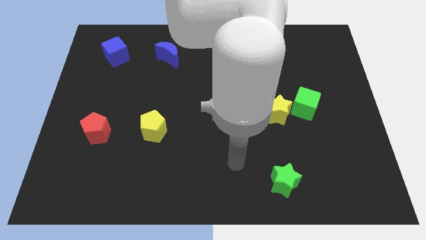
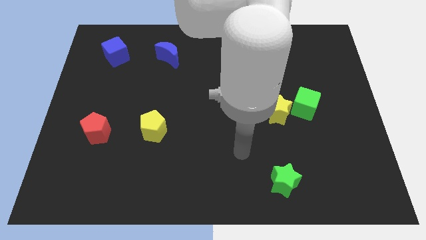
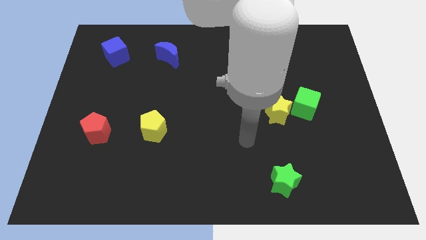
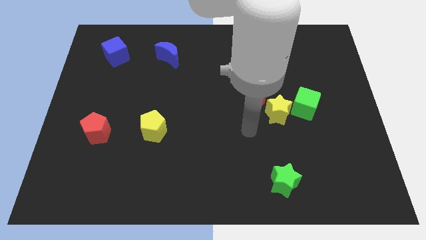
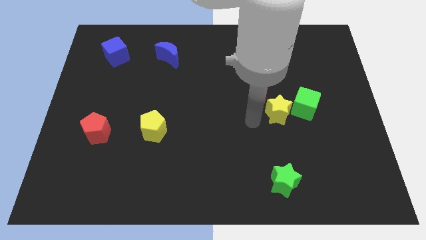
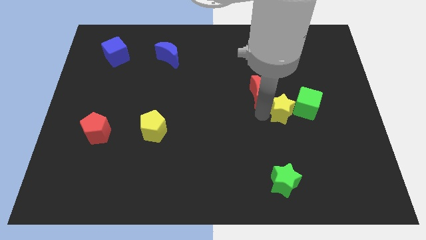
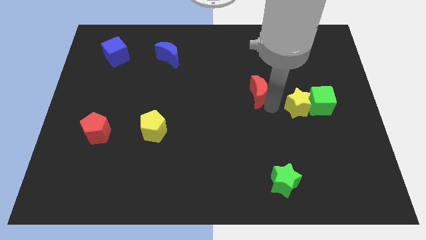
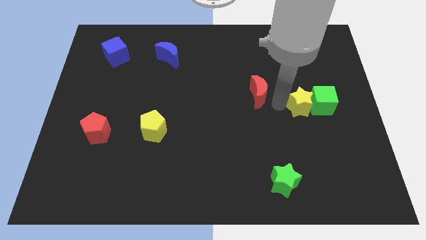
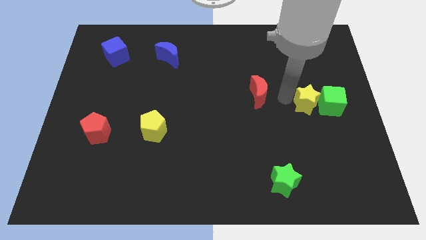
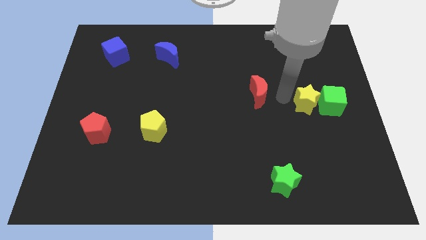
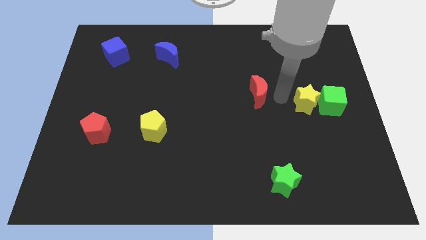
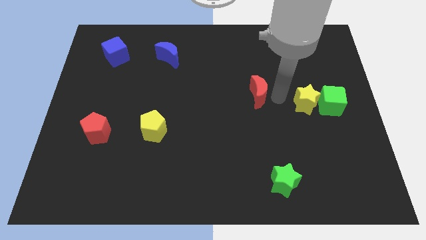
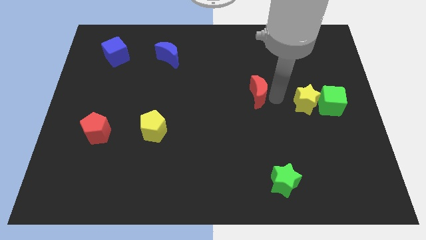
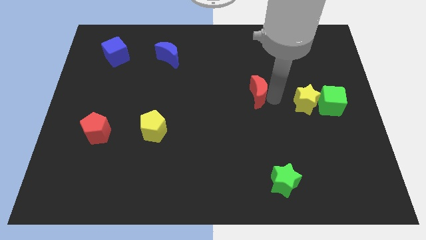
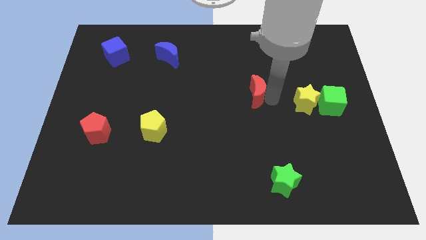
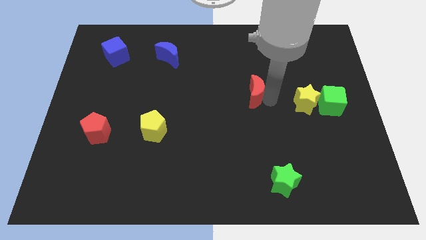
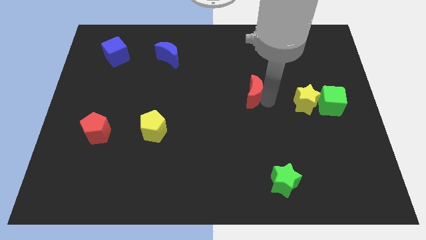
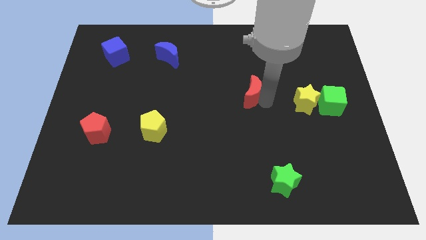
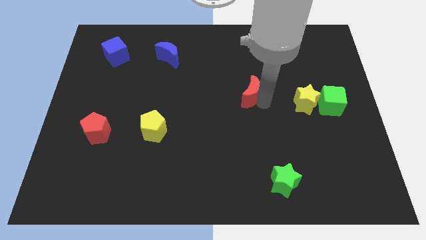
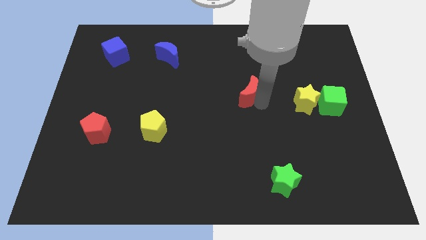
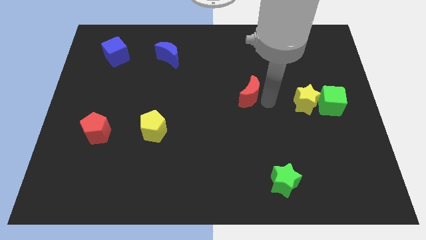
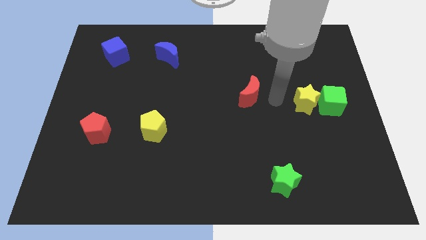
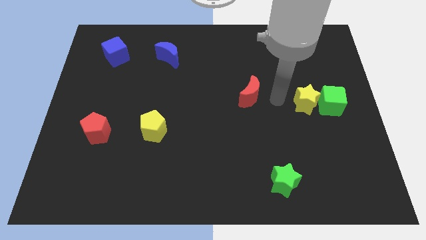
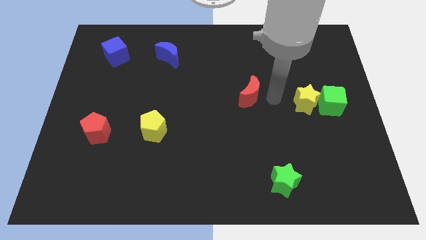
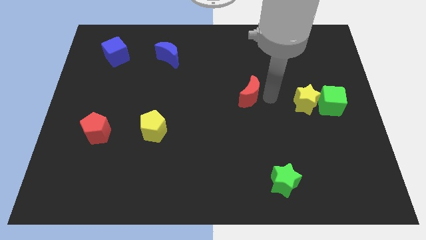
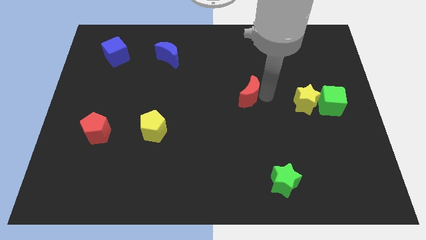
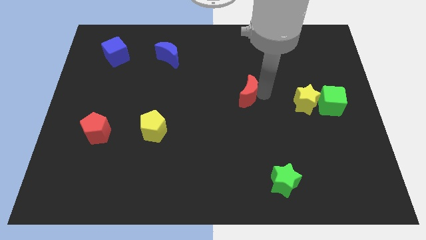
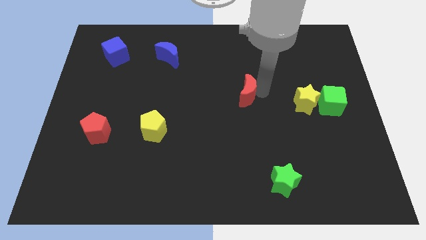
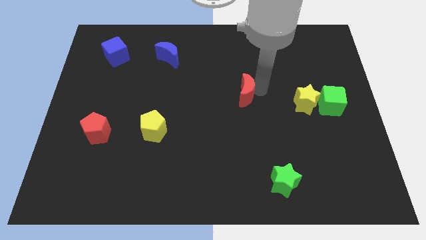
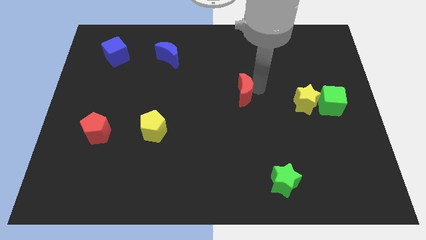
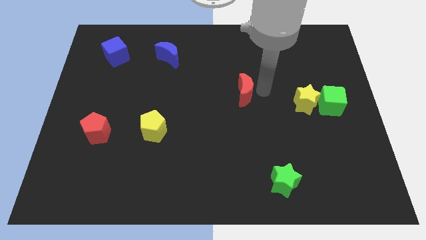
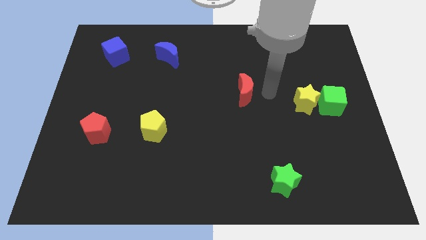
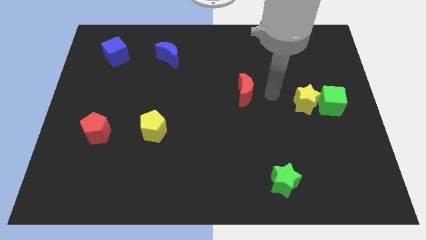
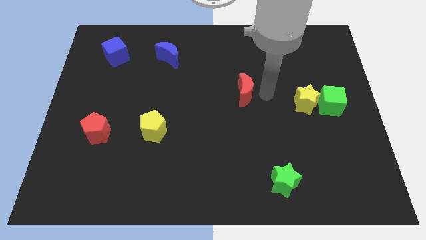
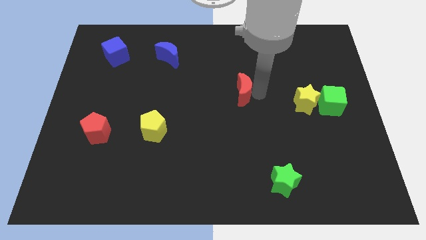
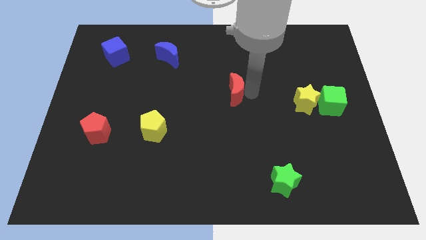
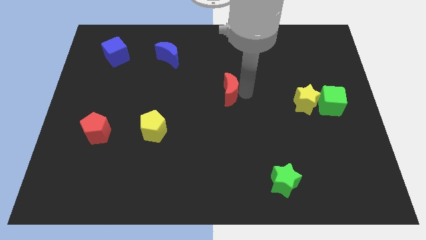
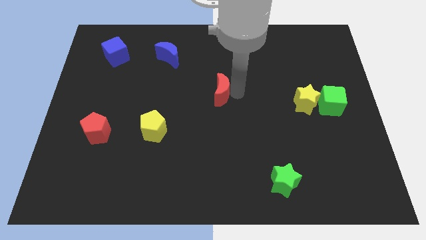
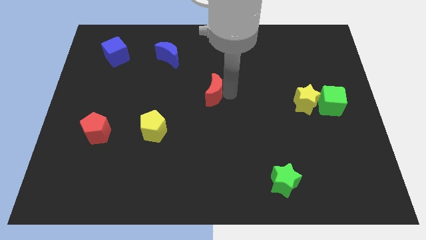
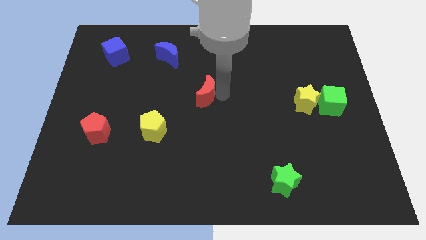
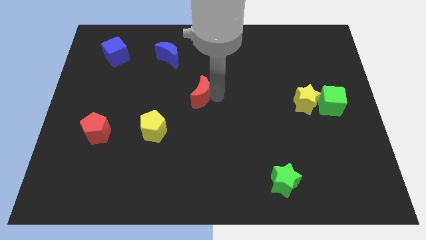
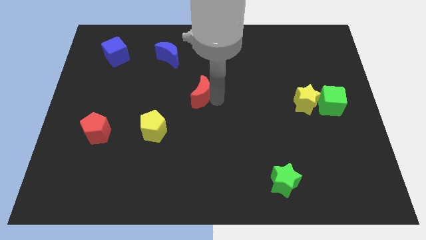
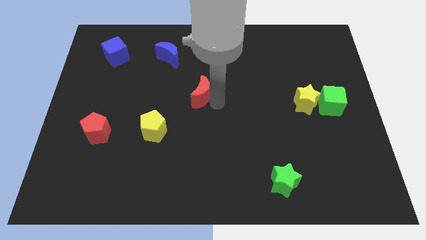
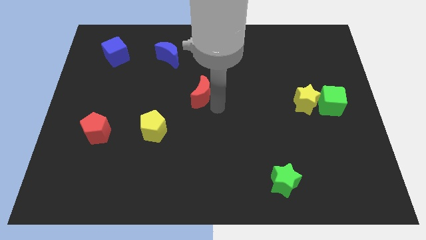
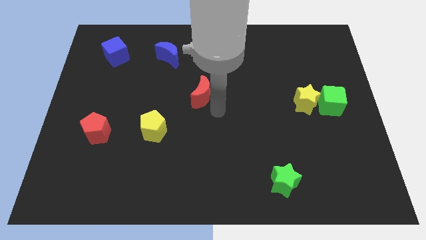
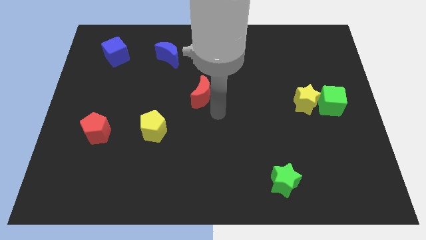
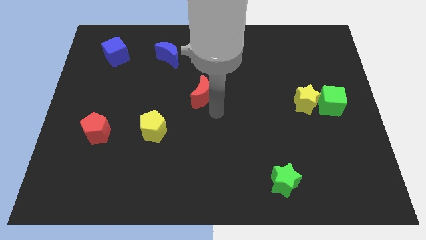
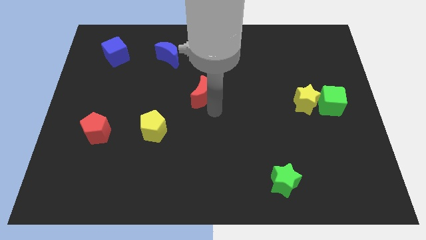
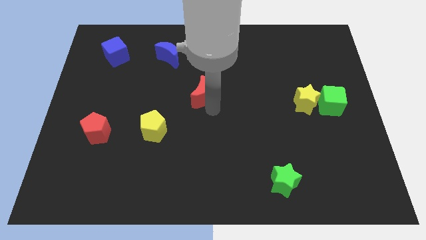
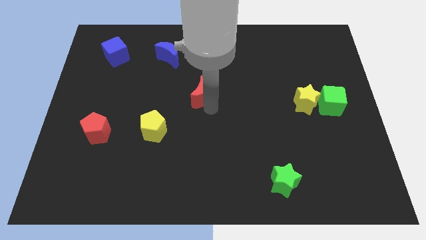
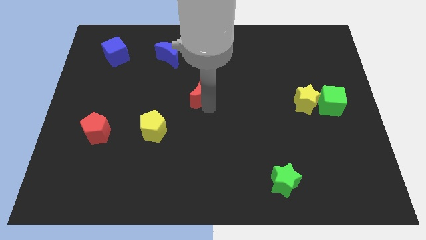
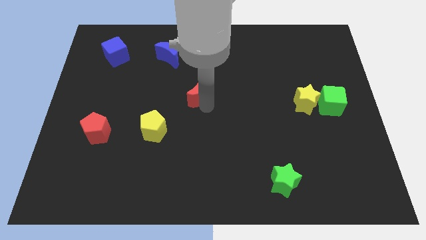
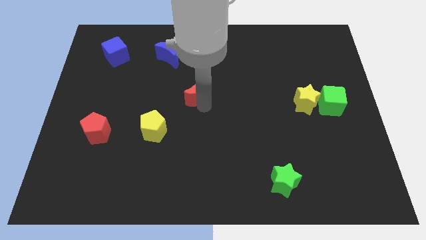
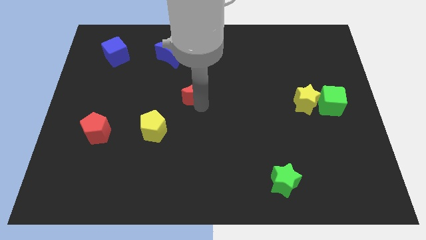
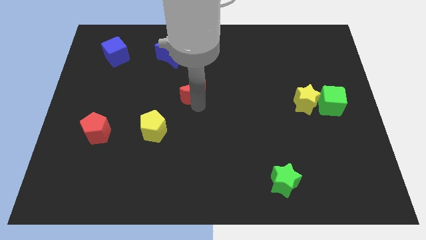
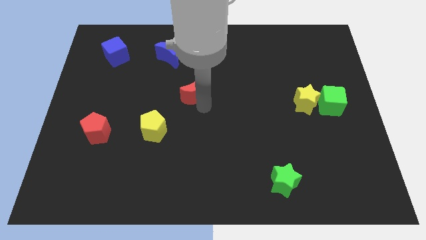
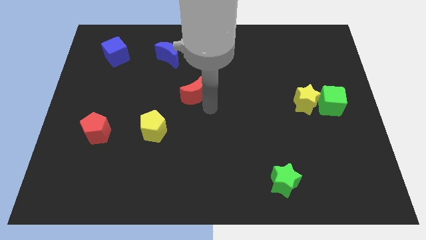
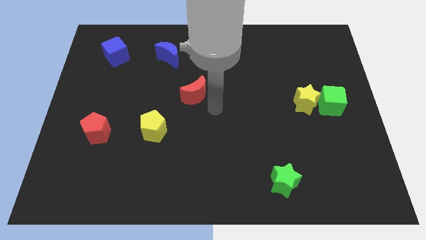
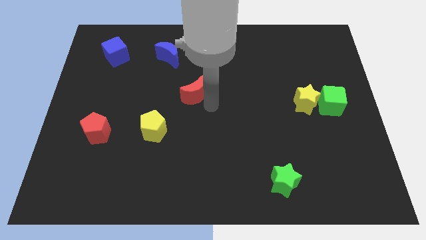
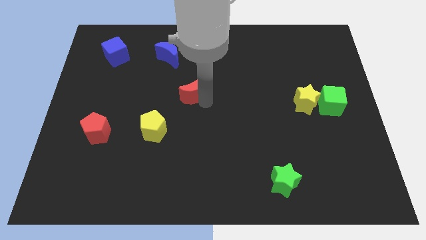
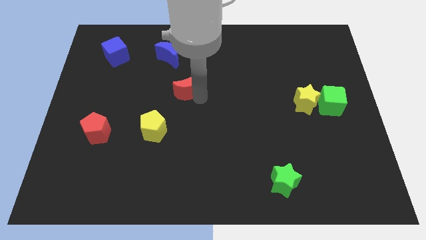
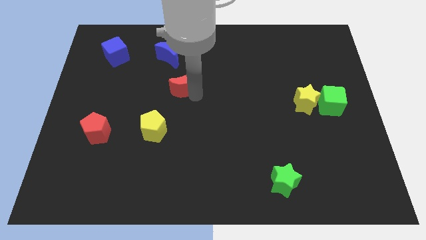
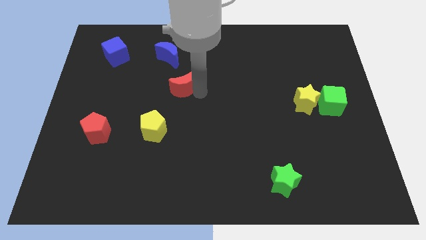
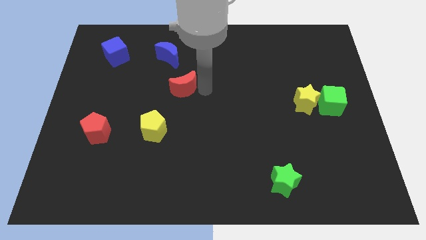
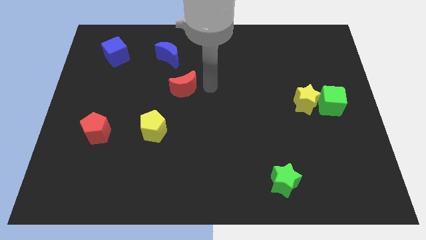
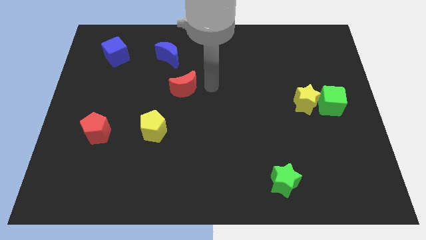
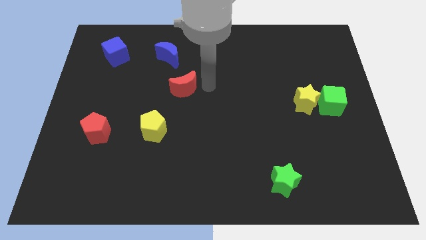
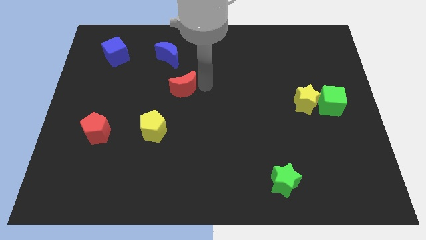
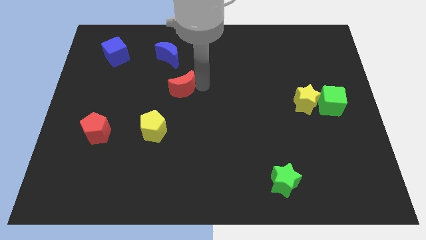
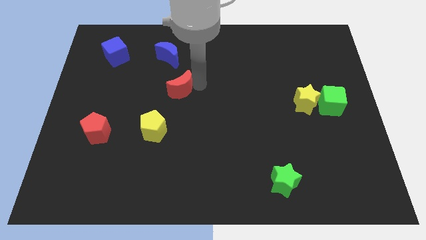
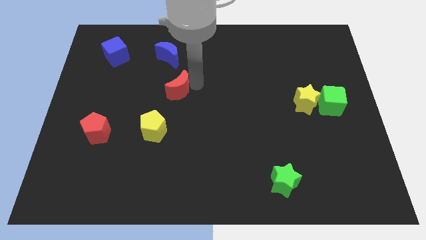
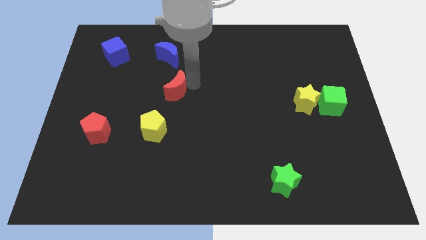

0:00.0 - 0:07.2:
push the red moon left

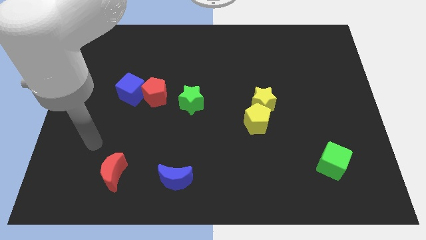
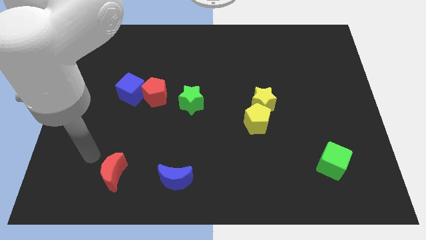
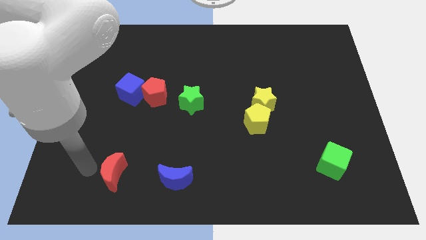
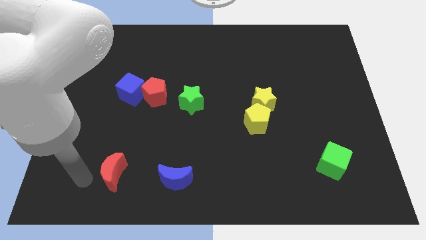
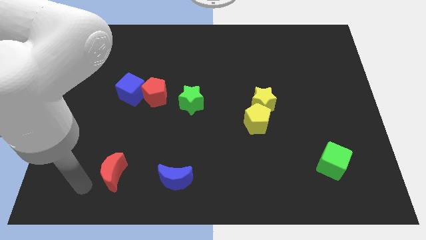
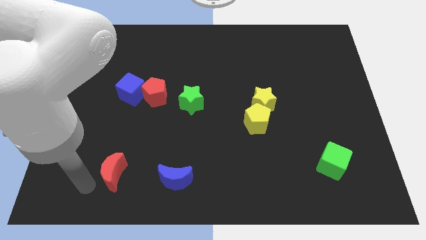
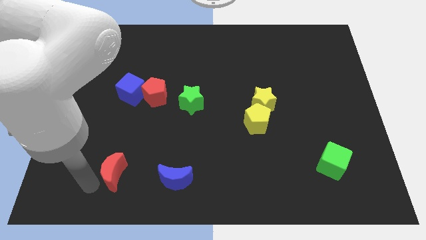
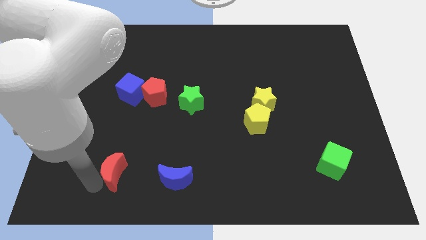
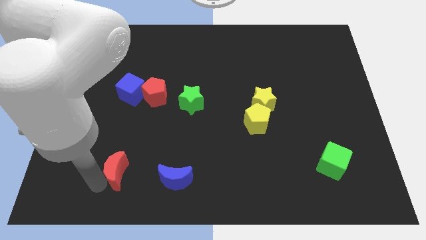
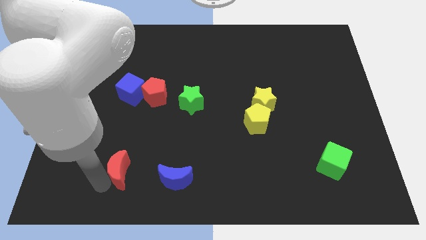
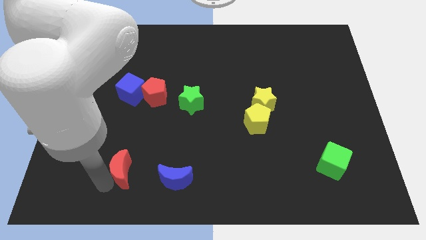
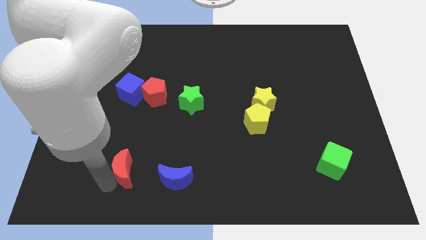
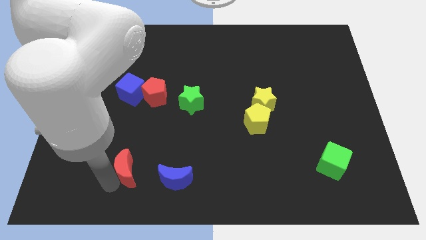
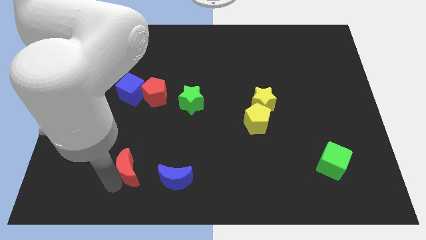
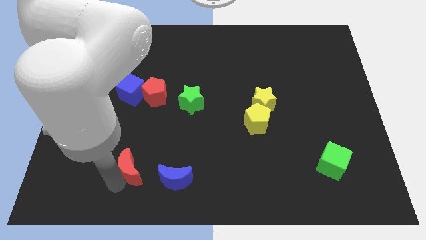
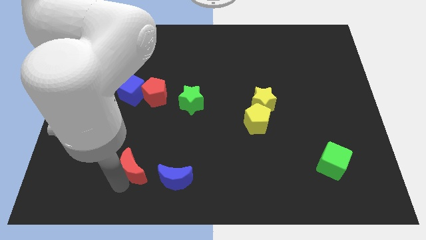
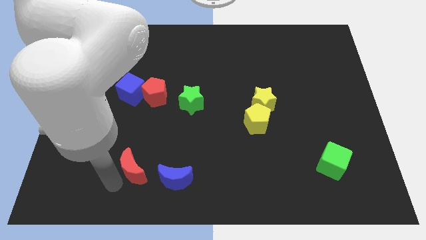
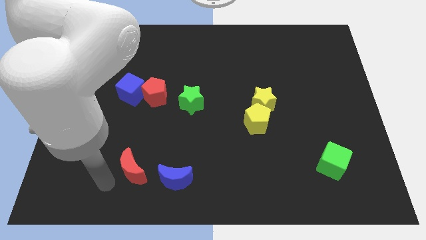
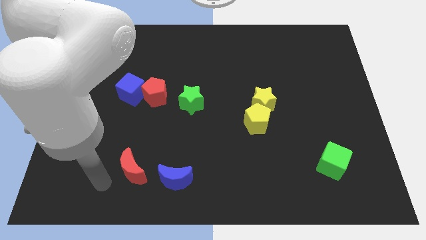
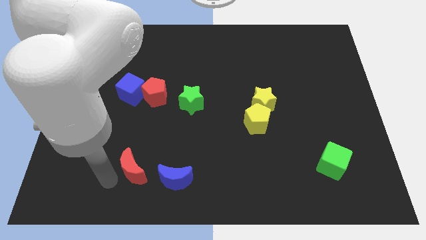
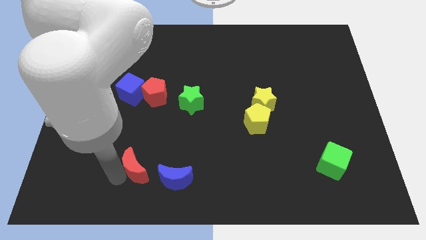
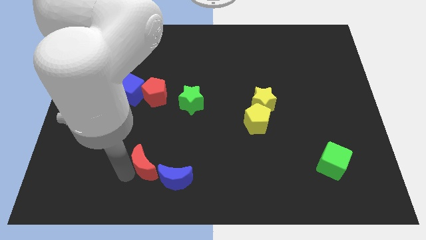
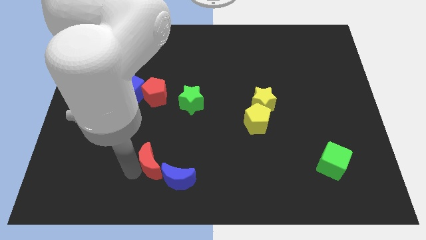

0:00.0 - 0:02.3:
slightly push the red moon to the right
